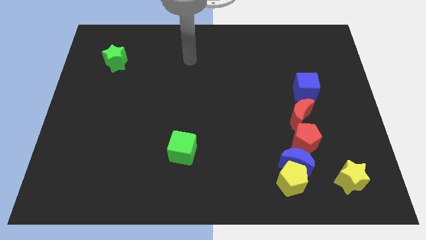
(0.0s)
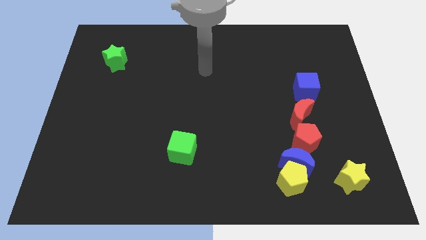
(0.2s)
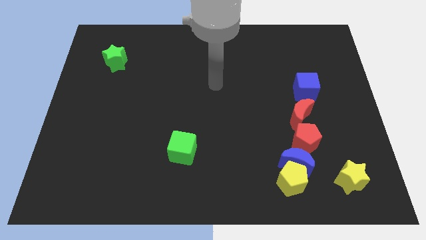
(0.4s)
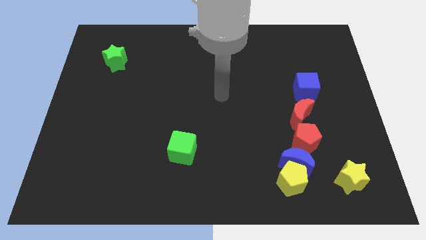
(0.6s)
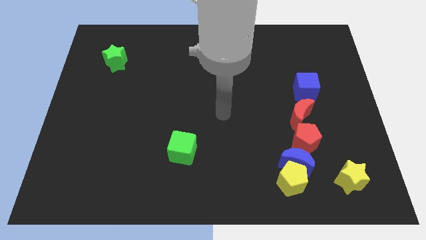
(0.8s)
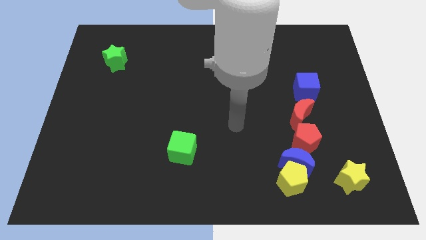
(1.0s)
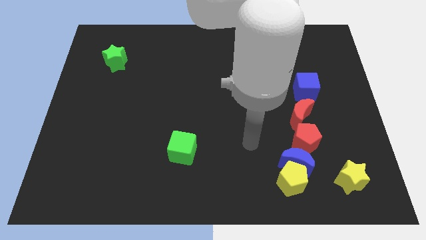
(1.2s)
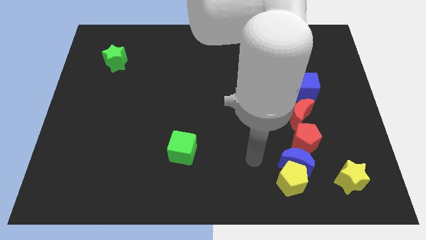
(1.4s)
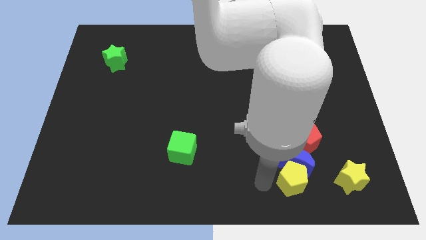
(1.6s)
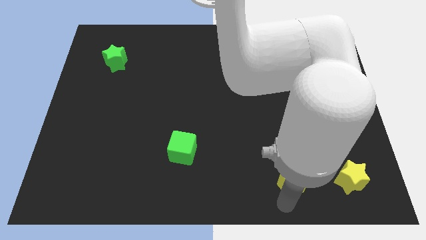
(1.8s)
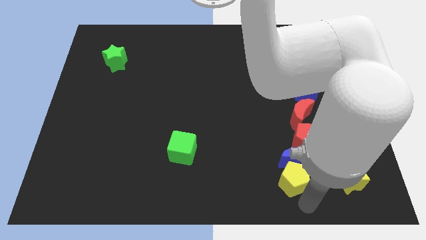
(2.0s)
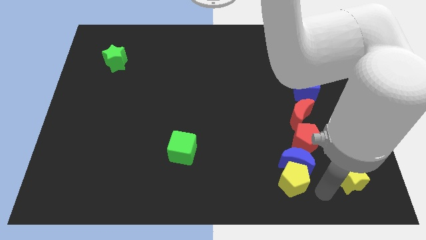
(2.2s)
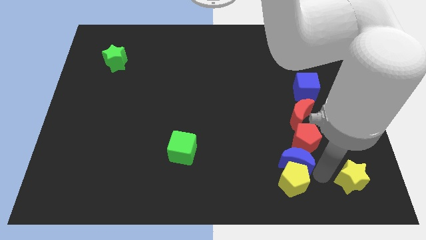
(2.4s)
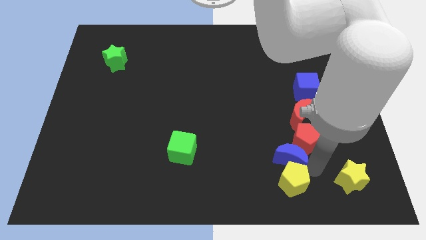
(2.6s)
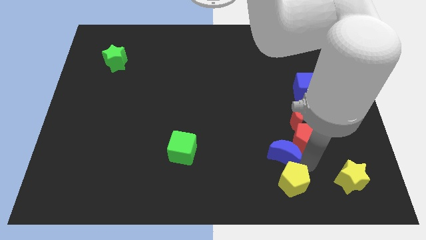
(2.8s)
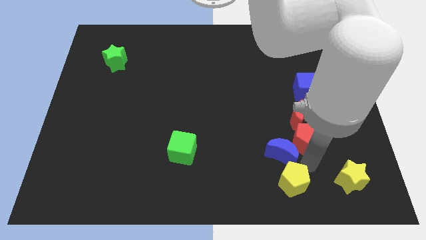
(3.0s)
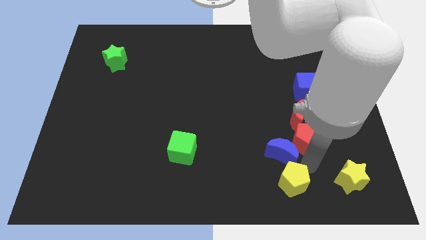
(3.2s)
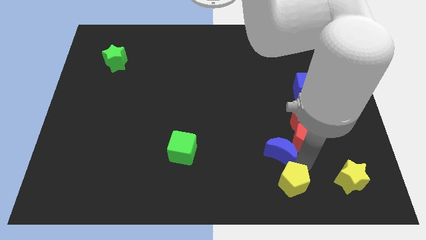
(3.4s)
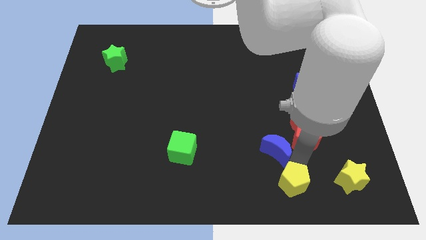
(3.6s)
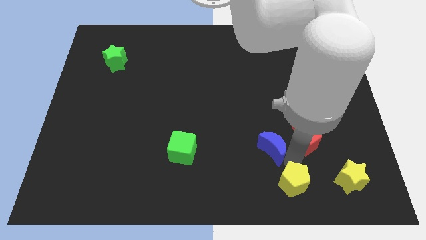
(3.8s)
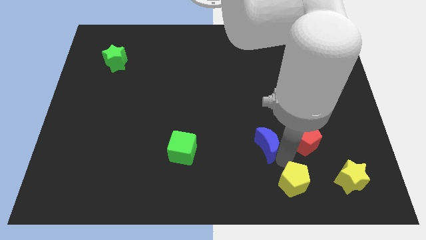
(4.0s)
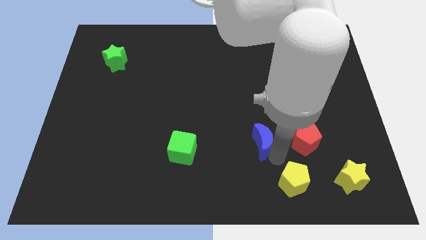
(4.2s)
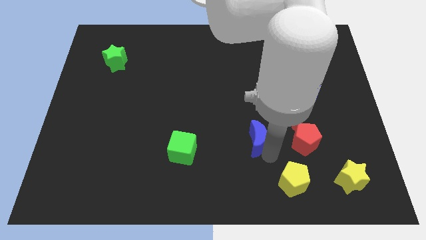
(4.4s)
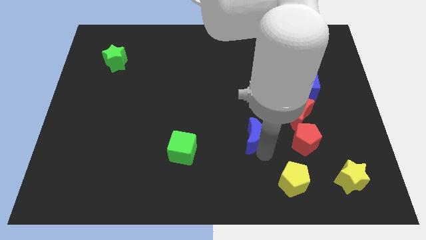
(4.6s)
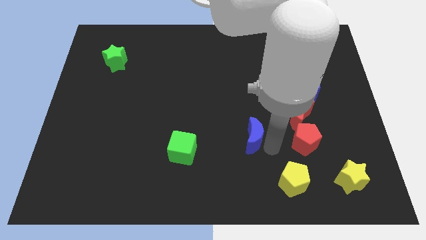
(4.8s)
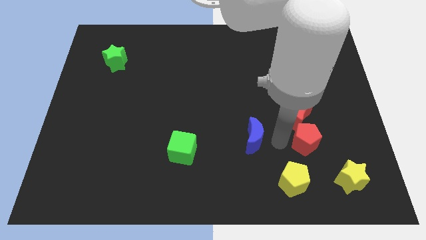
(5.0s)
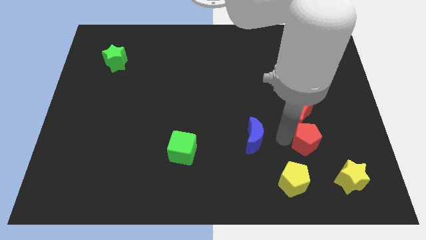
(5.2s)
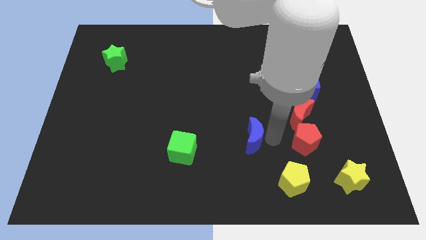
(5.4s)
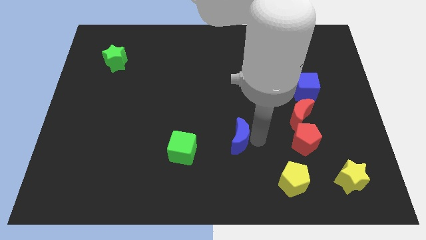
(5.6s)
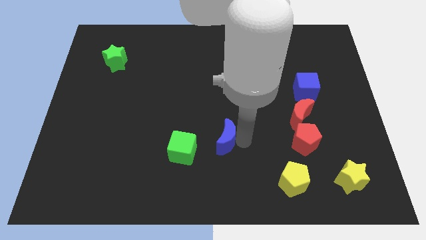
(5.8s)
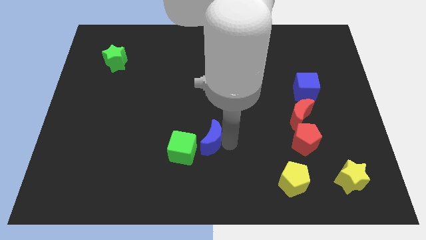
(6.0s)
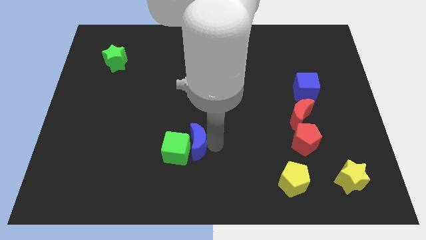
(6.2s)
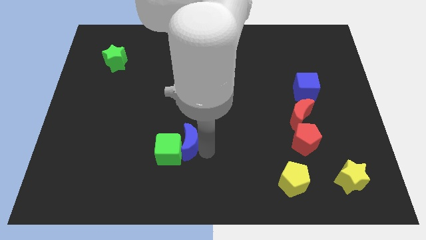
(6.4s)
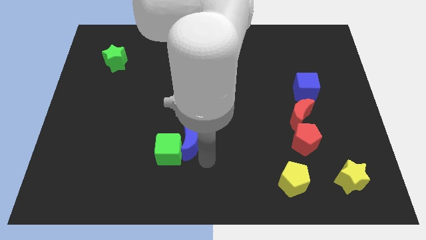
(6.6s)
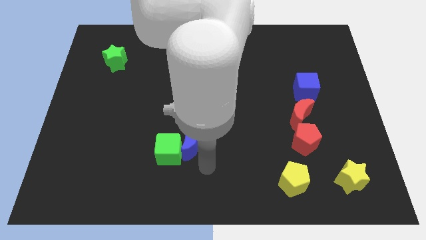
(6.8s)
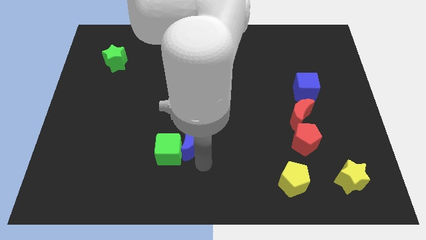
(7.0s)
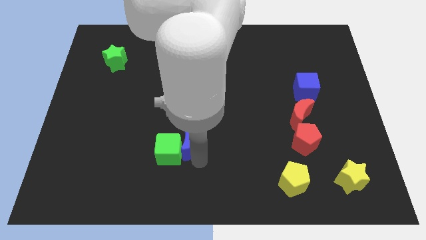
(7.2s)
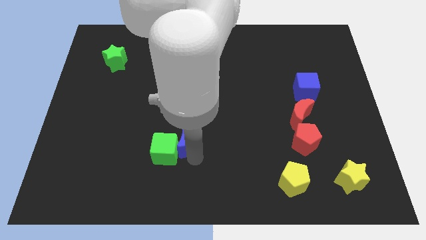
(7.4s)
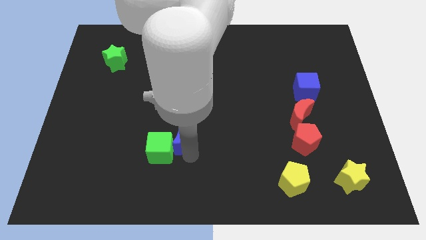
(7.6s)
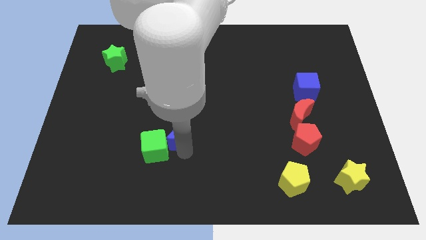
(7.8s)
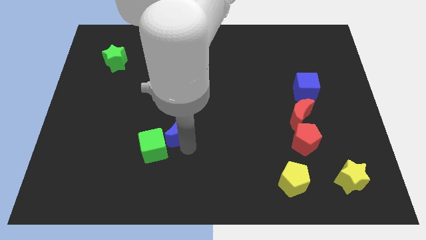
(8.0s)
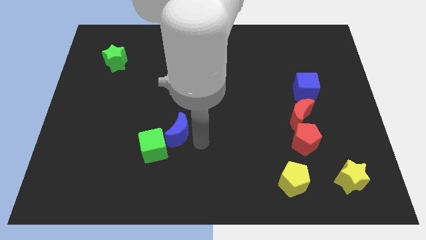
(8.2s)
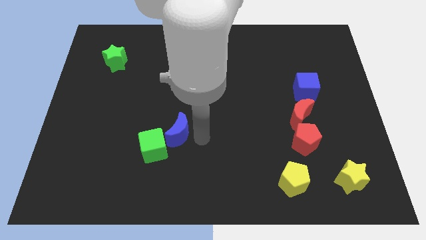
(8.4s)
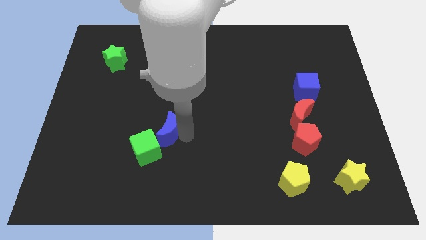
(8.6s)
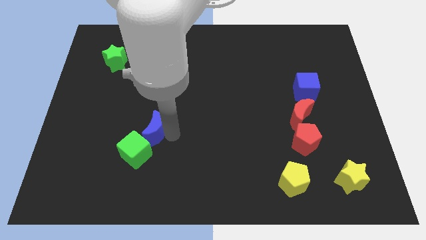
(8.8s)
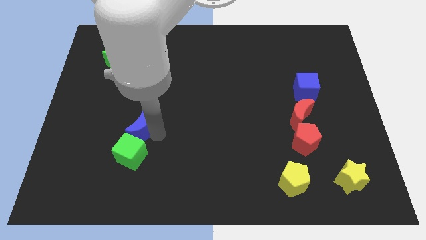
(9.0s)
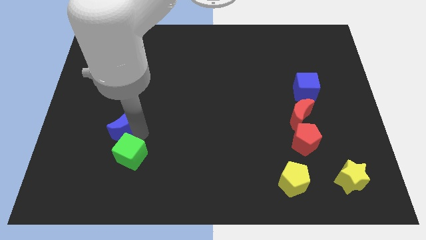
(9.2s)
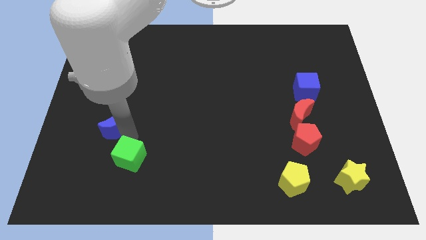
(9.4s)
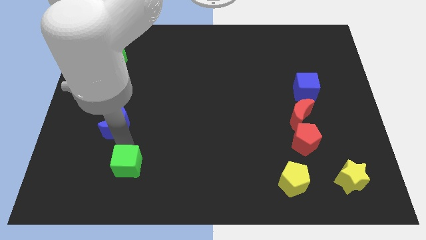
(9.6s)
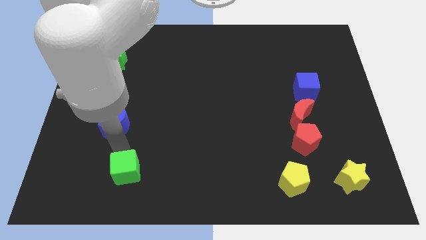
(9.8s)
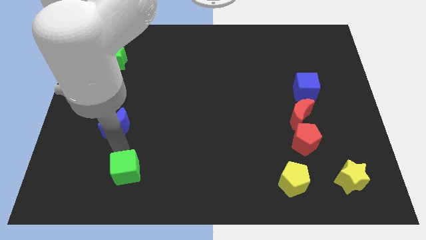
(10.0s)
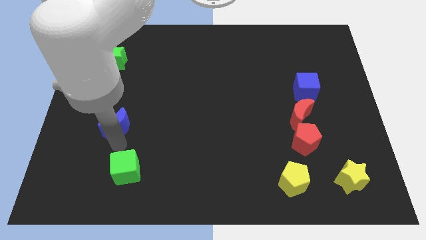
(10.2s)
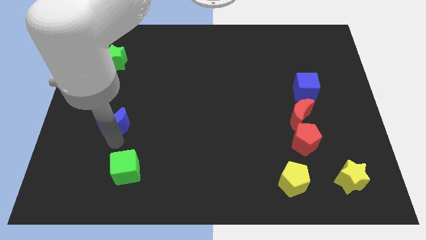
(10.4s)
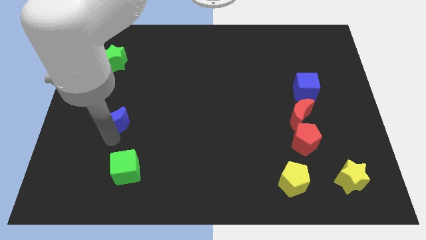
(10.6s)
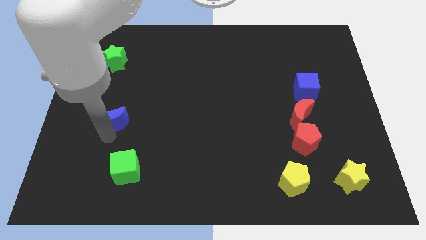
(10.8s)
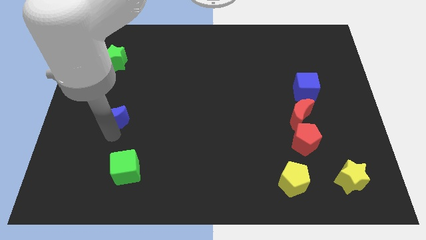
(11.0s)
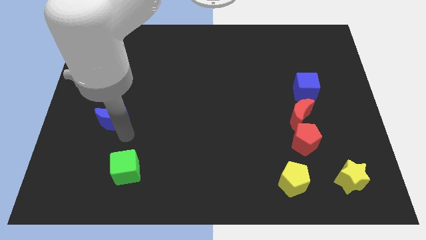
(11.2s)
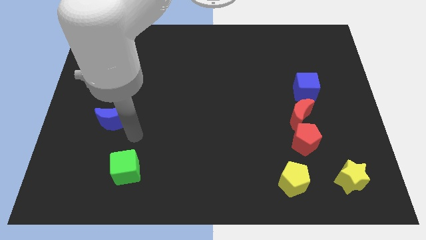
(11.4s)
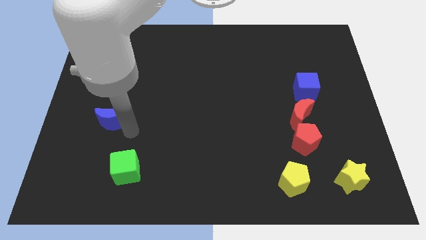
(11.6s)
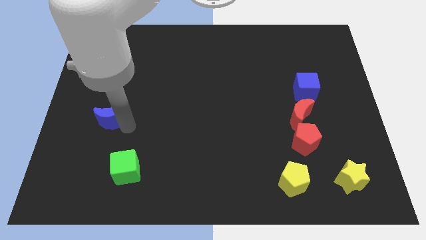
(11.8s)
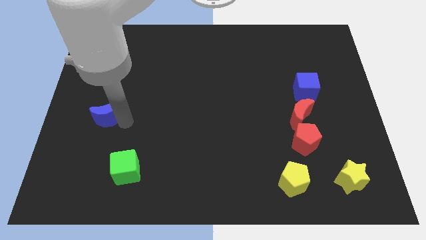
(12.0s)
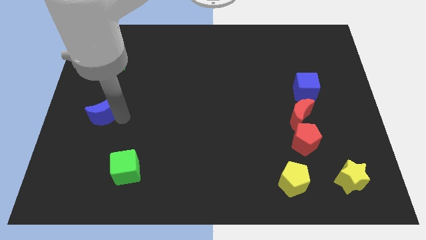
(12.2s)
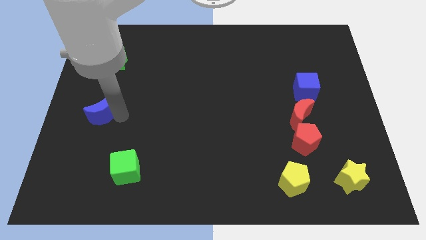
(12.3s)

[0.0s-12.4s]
slide the blue moon to the left side of the board

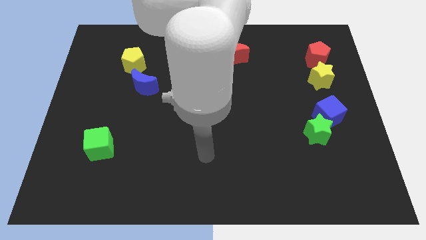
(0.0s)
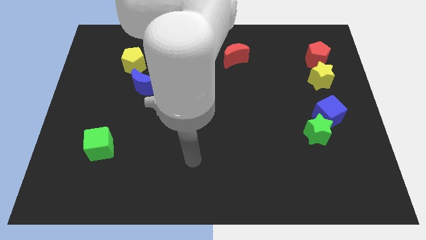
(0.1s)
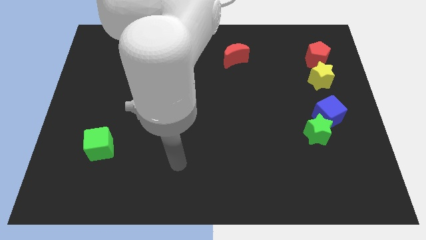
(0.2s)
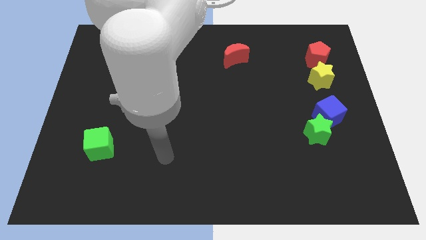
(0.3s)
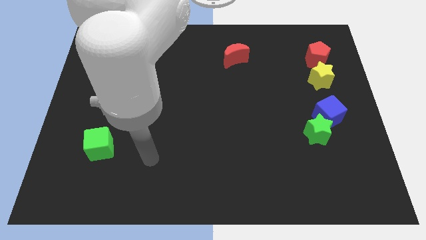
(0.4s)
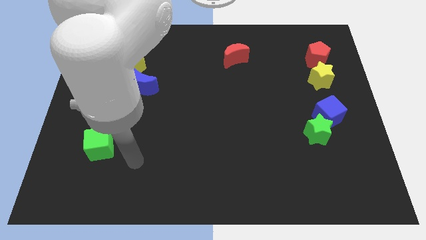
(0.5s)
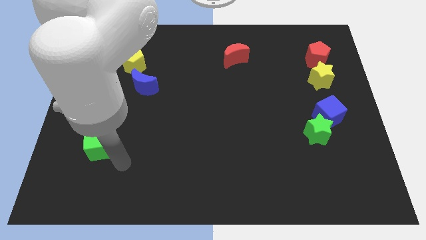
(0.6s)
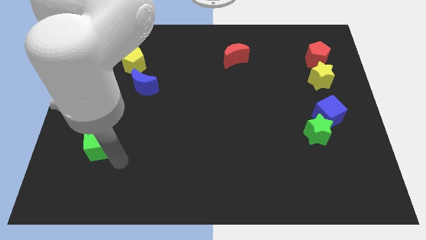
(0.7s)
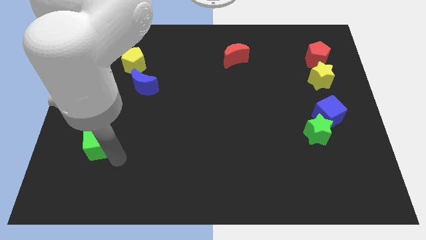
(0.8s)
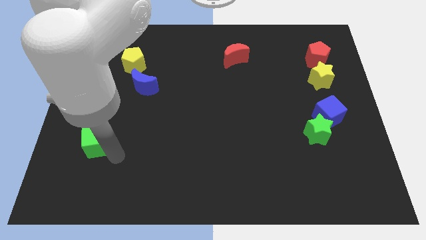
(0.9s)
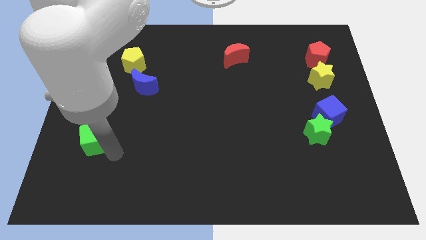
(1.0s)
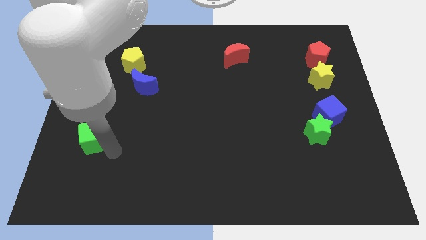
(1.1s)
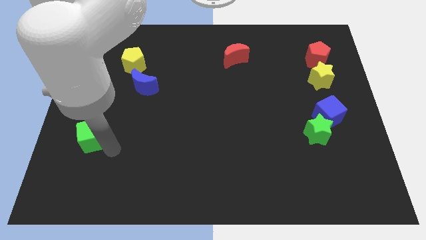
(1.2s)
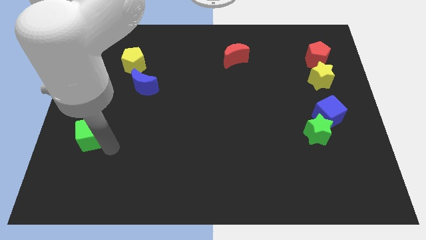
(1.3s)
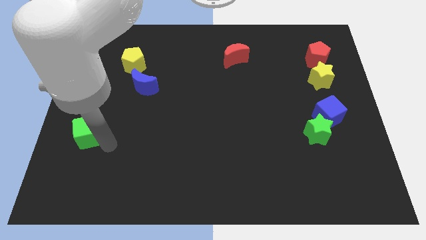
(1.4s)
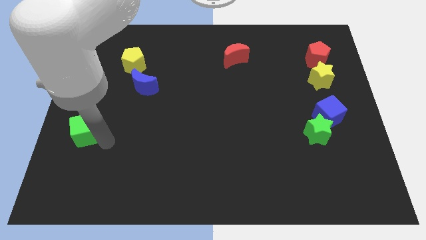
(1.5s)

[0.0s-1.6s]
put the green cube to the center left

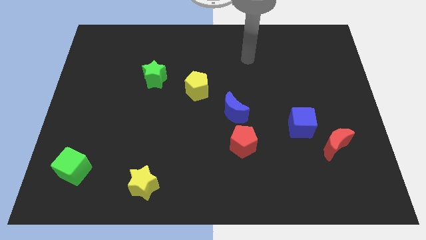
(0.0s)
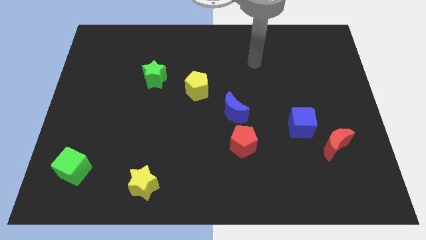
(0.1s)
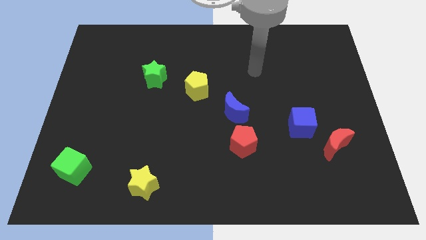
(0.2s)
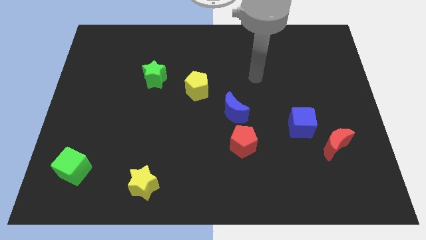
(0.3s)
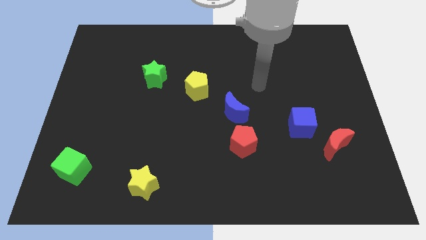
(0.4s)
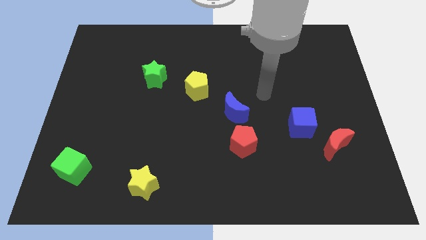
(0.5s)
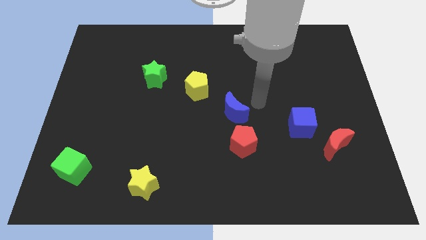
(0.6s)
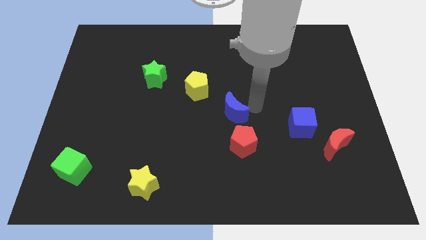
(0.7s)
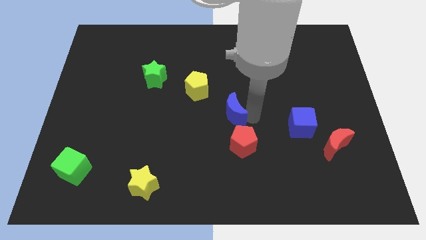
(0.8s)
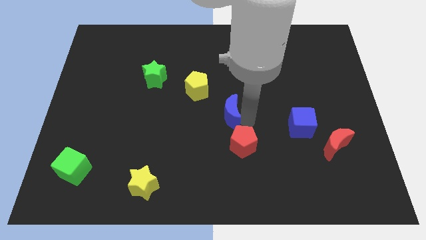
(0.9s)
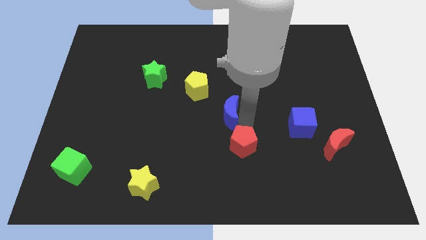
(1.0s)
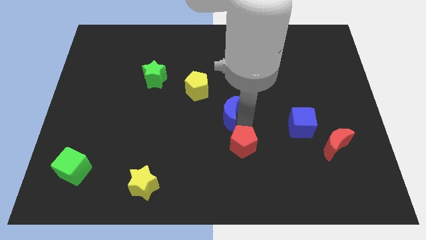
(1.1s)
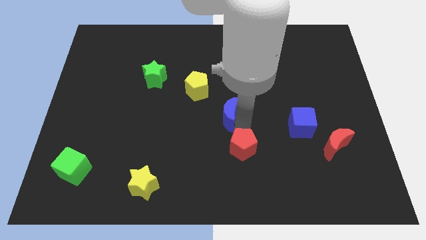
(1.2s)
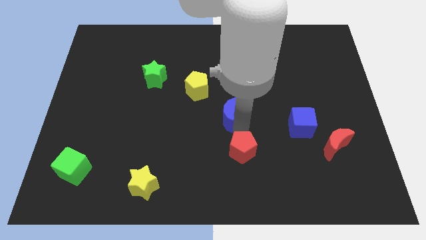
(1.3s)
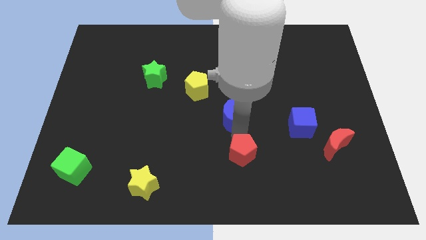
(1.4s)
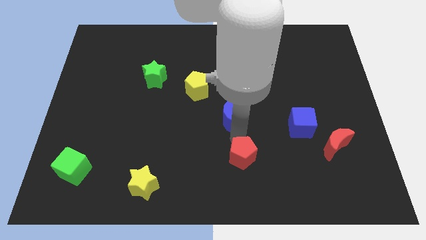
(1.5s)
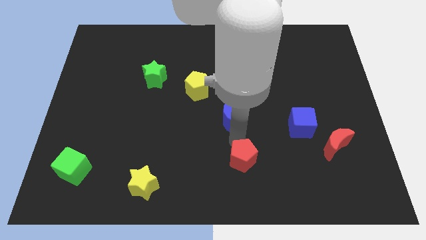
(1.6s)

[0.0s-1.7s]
put the red pentagon to the bottom
